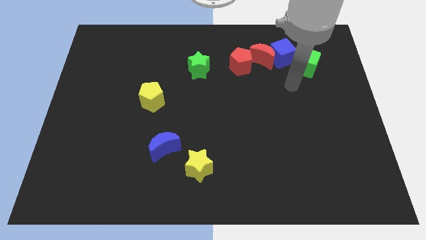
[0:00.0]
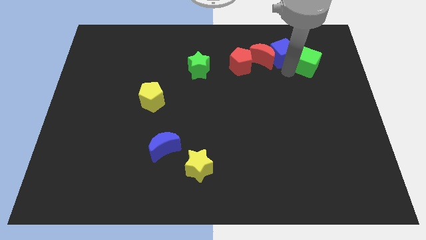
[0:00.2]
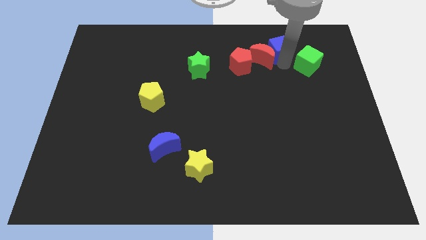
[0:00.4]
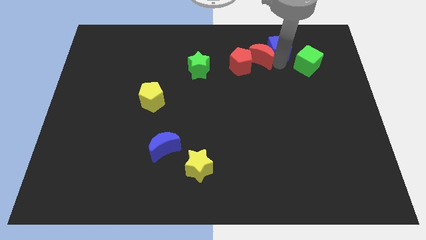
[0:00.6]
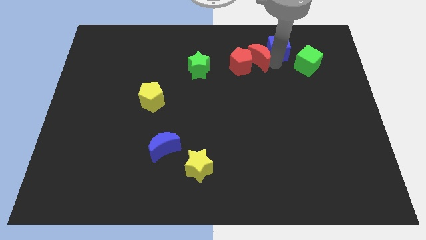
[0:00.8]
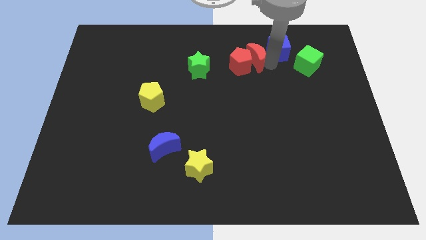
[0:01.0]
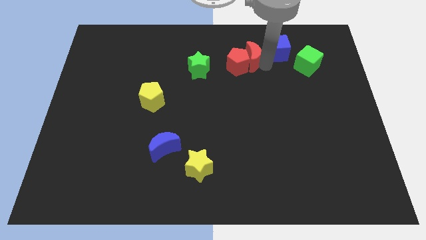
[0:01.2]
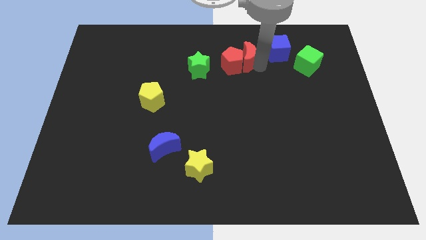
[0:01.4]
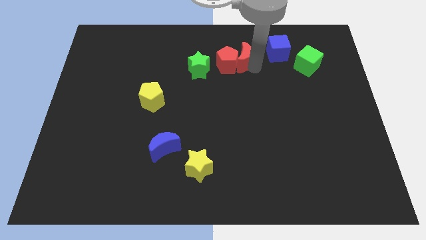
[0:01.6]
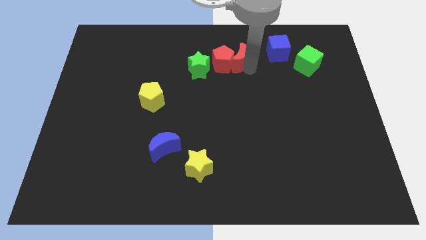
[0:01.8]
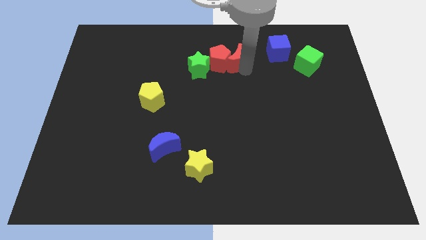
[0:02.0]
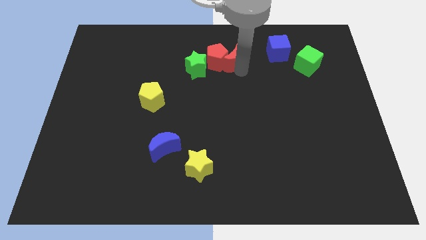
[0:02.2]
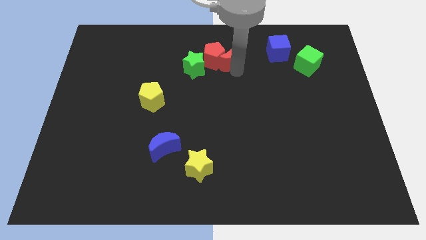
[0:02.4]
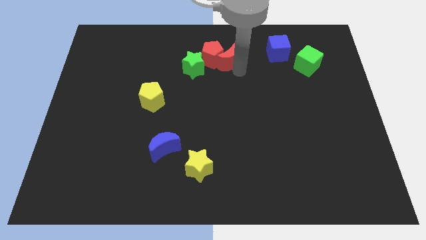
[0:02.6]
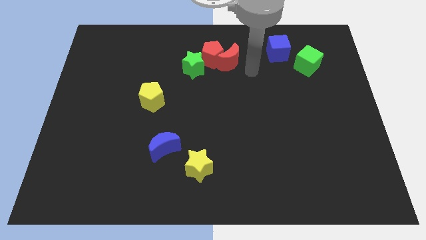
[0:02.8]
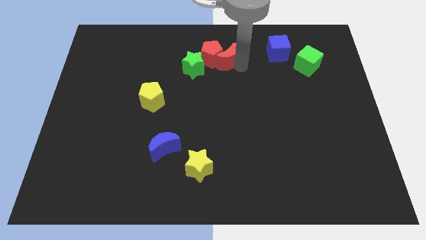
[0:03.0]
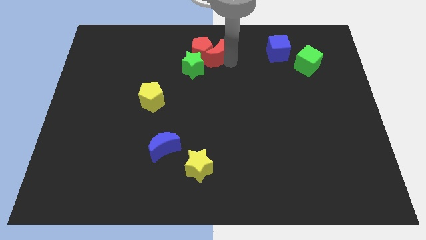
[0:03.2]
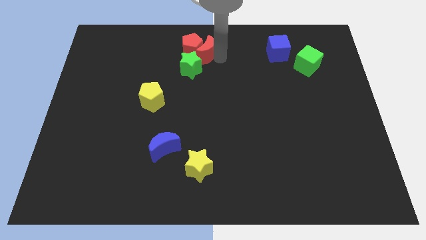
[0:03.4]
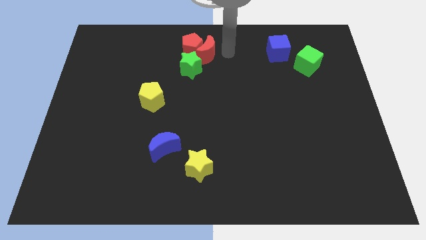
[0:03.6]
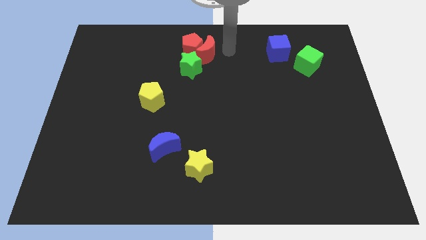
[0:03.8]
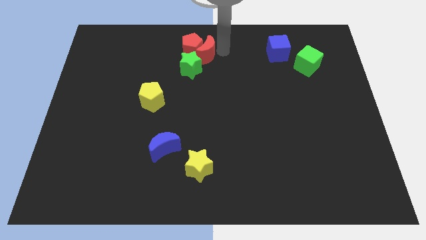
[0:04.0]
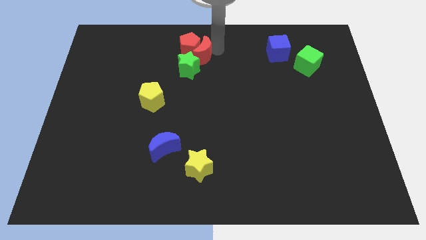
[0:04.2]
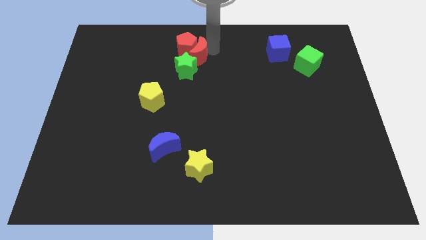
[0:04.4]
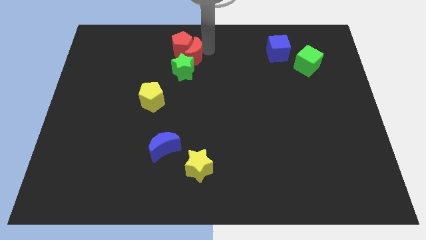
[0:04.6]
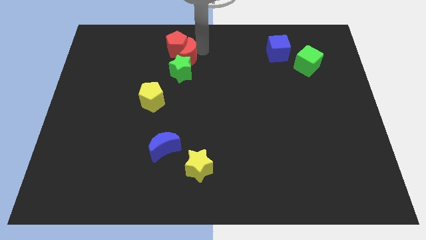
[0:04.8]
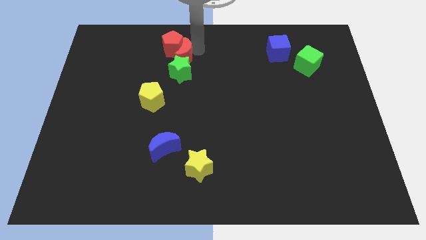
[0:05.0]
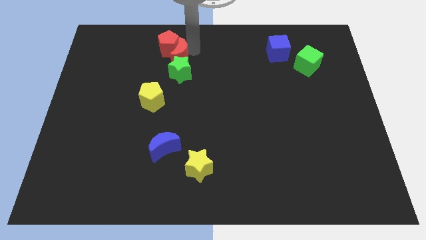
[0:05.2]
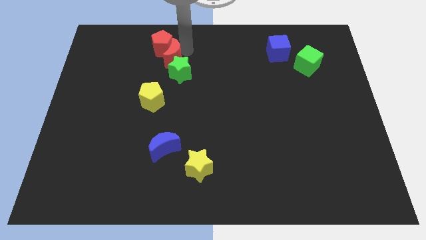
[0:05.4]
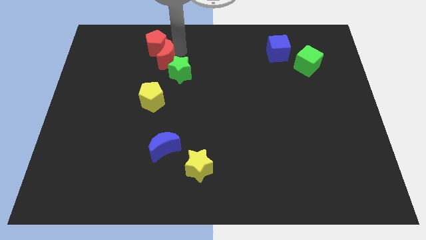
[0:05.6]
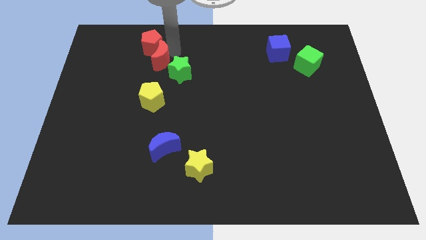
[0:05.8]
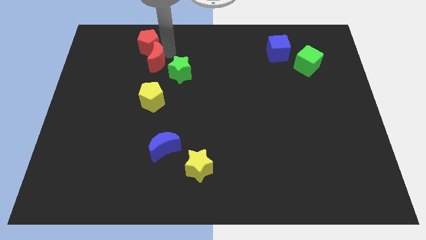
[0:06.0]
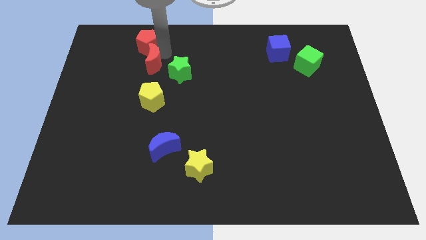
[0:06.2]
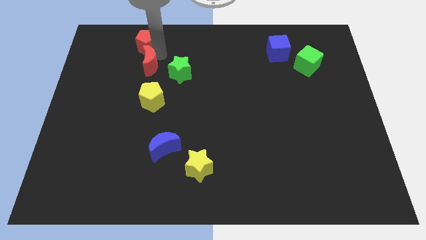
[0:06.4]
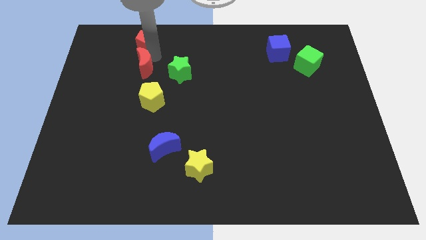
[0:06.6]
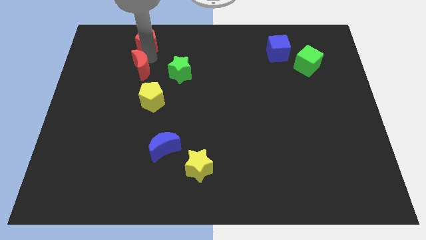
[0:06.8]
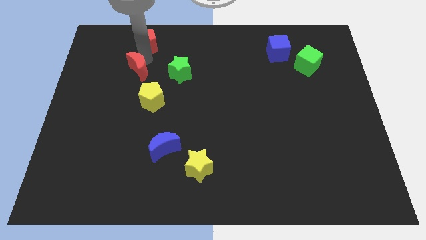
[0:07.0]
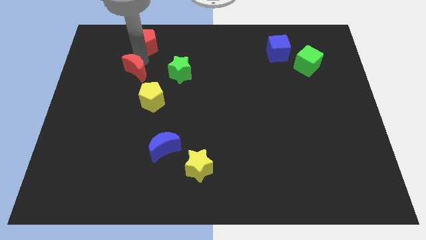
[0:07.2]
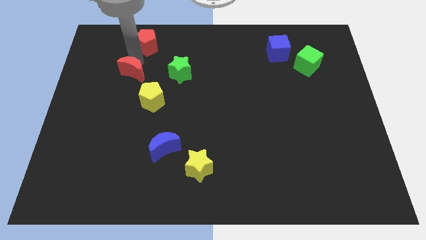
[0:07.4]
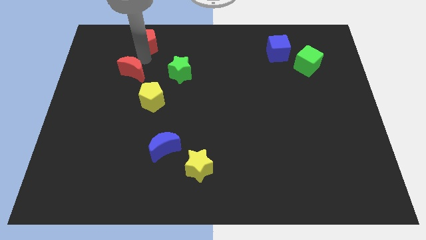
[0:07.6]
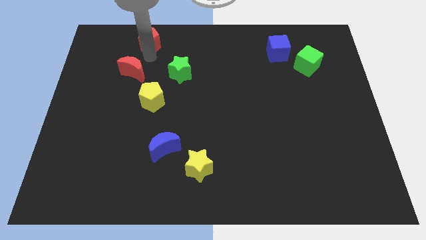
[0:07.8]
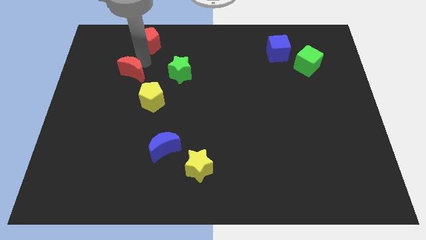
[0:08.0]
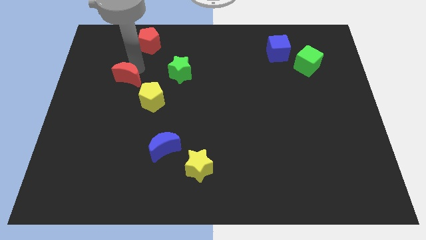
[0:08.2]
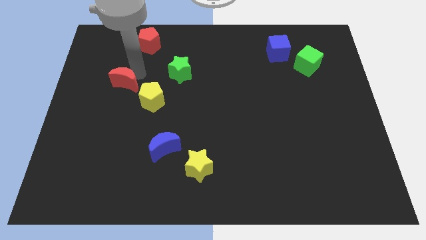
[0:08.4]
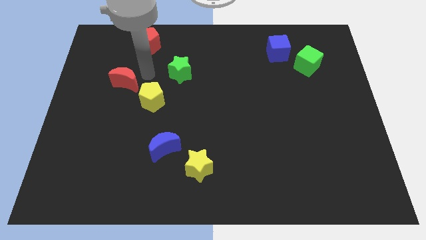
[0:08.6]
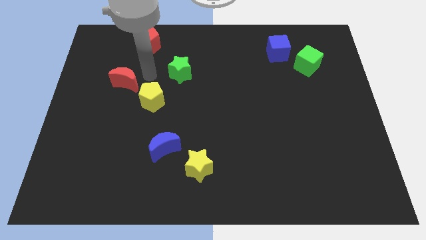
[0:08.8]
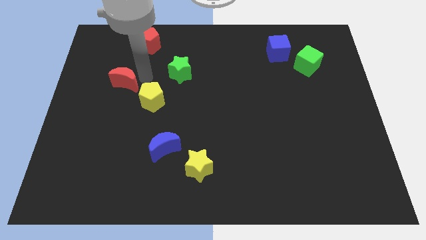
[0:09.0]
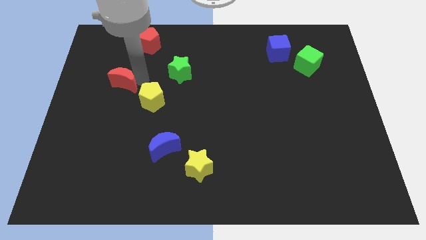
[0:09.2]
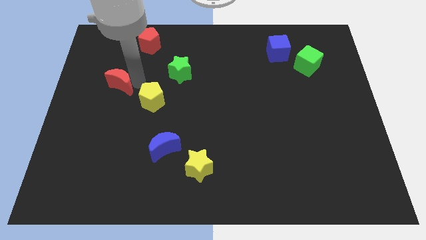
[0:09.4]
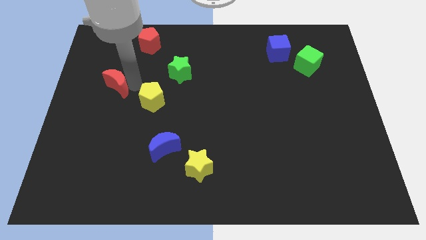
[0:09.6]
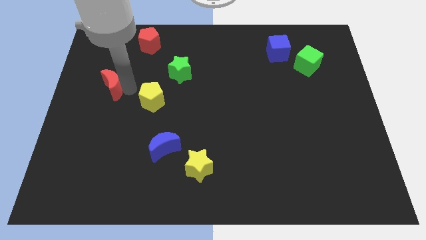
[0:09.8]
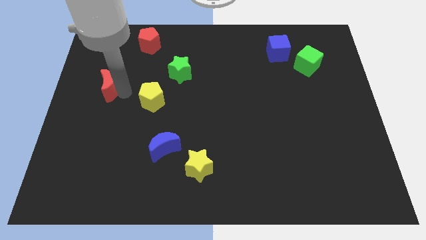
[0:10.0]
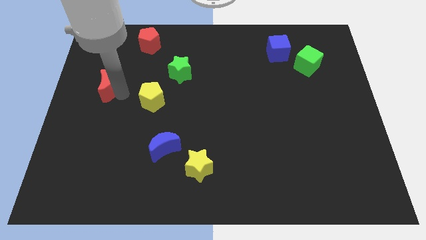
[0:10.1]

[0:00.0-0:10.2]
slide the red moon to the left side of the board

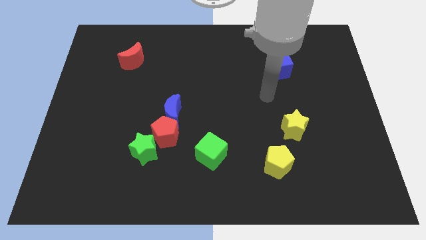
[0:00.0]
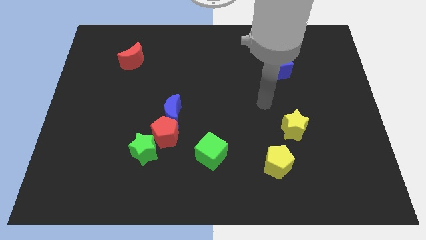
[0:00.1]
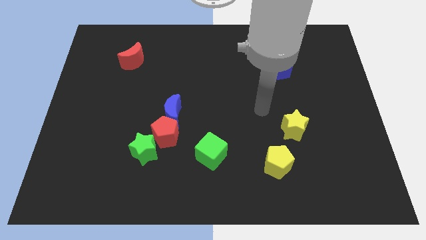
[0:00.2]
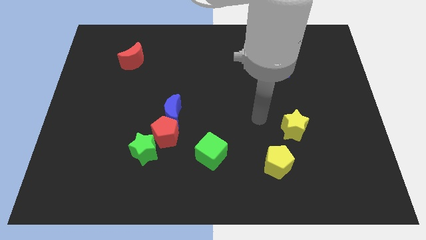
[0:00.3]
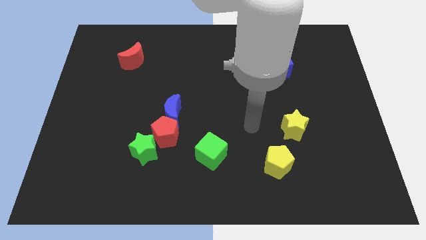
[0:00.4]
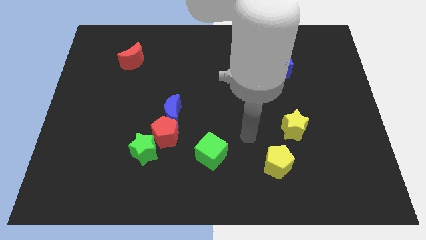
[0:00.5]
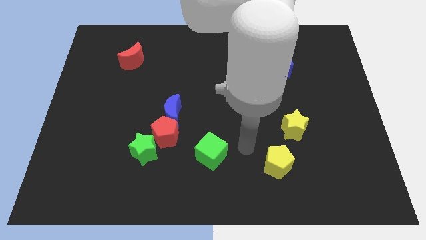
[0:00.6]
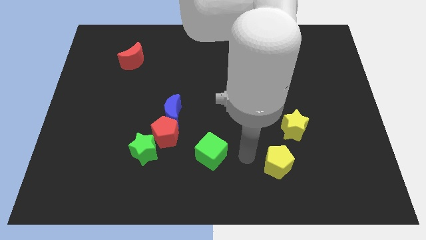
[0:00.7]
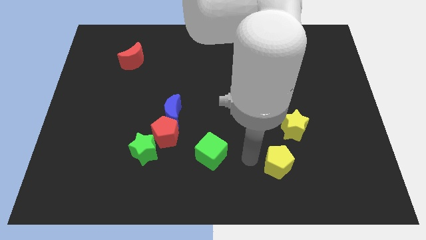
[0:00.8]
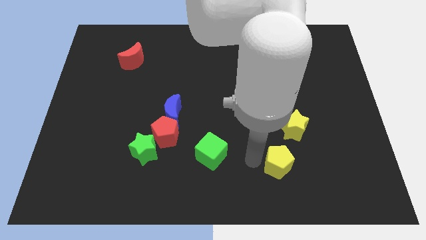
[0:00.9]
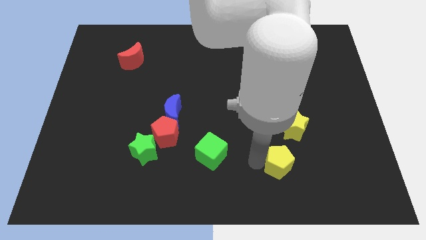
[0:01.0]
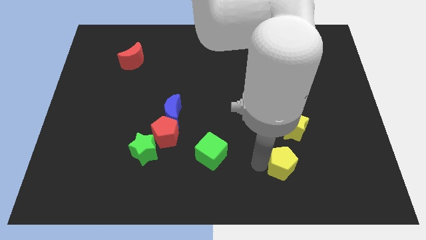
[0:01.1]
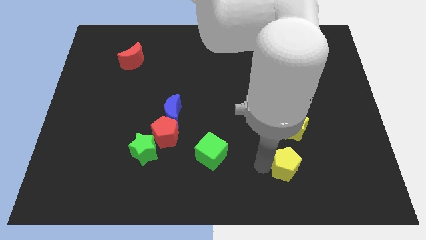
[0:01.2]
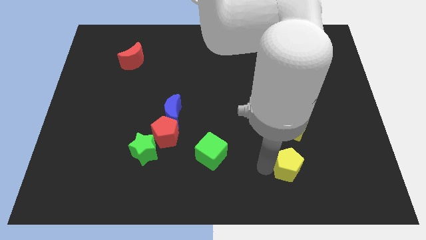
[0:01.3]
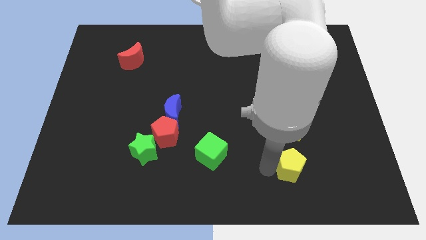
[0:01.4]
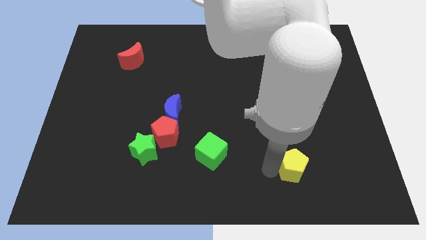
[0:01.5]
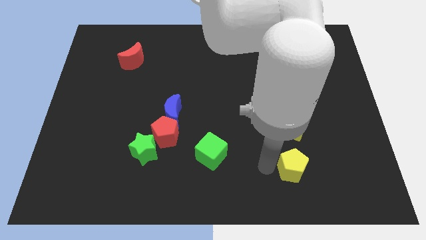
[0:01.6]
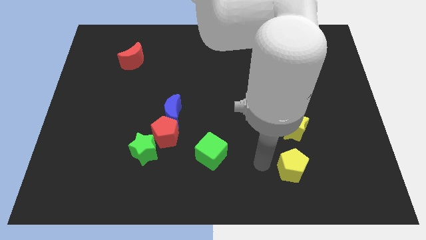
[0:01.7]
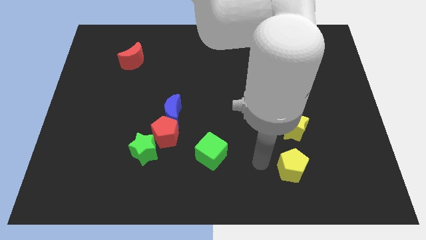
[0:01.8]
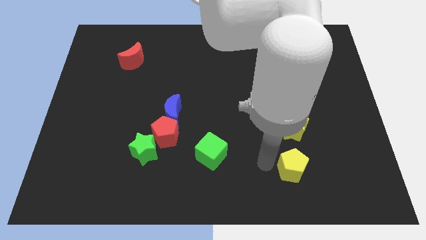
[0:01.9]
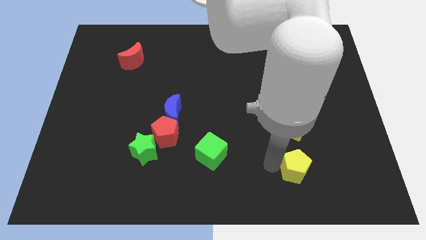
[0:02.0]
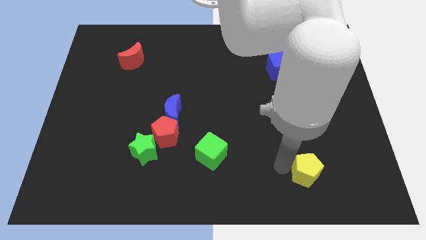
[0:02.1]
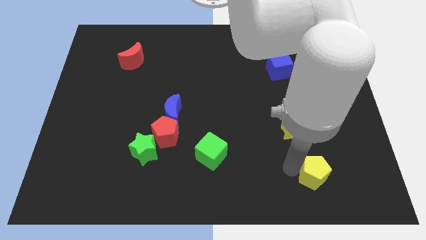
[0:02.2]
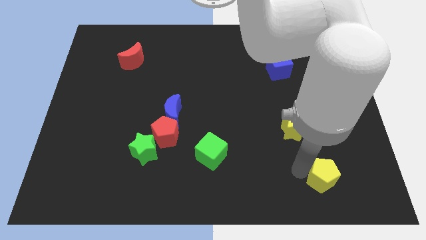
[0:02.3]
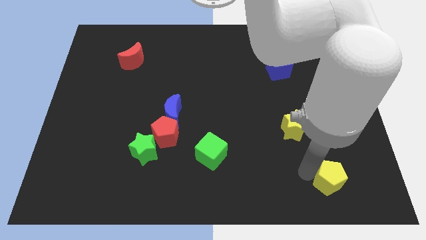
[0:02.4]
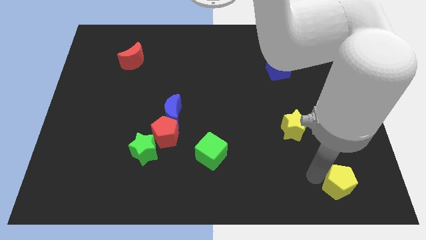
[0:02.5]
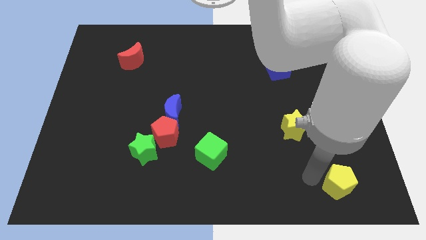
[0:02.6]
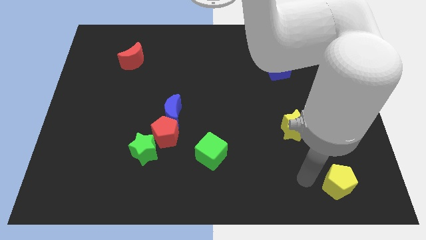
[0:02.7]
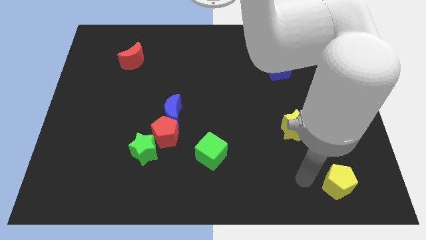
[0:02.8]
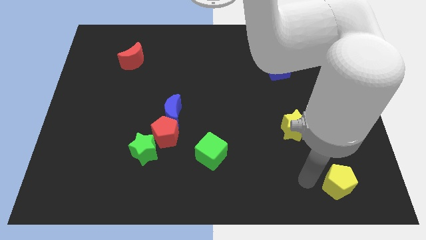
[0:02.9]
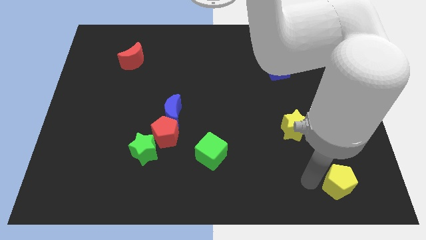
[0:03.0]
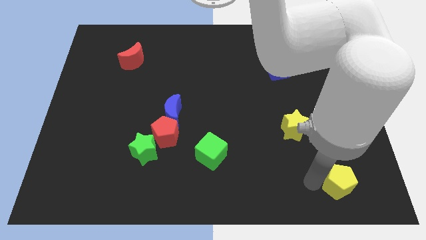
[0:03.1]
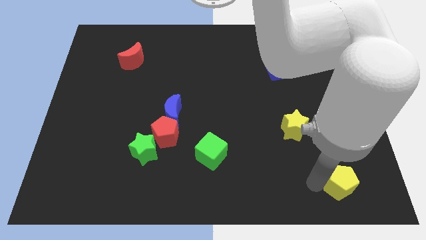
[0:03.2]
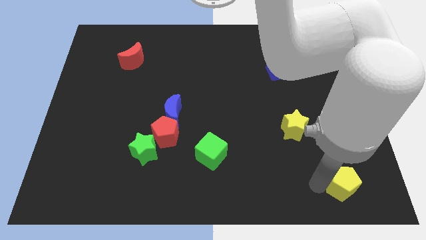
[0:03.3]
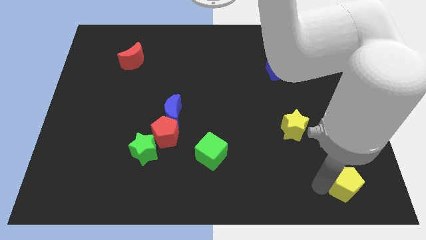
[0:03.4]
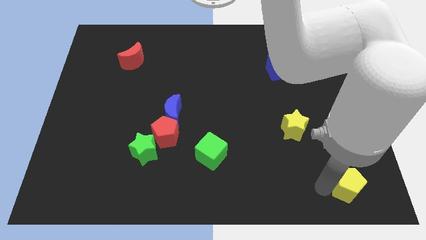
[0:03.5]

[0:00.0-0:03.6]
slide the yellow pentagon to the bottom right corner
